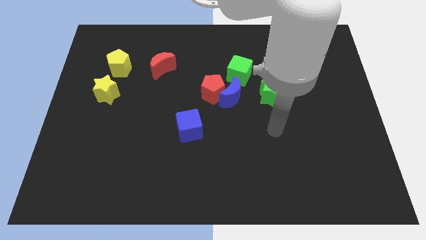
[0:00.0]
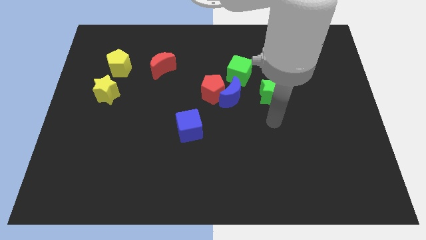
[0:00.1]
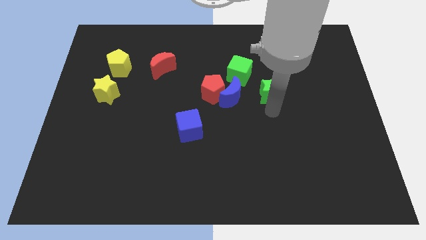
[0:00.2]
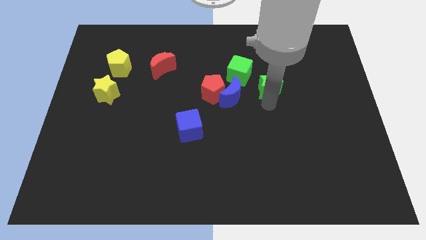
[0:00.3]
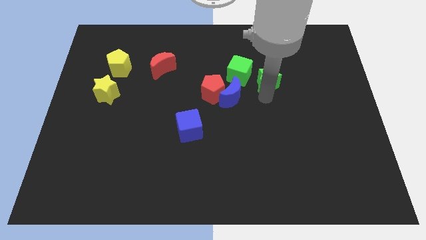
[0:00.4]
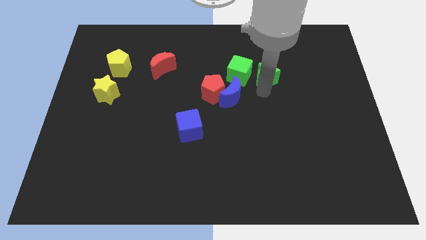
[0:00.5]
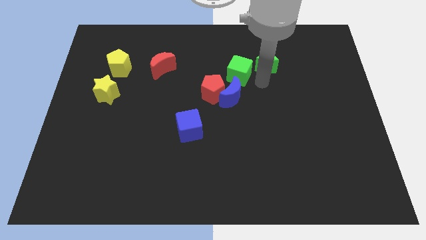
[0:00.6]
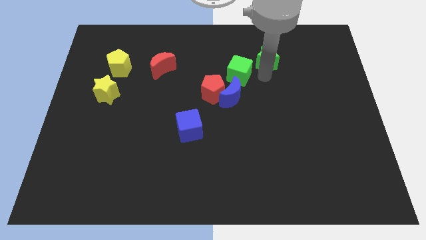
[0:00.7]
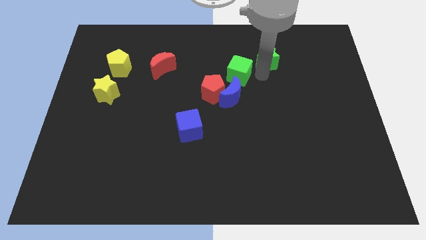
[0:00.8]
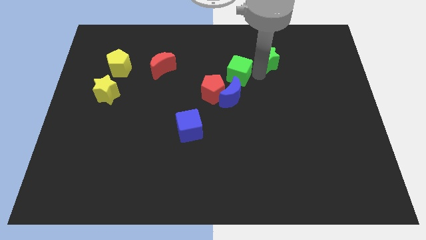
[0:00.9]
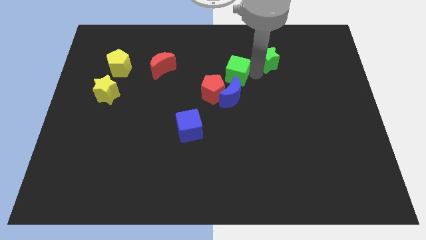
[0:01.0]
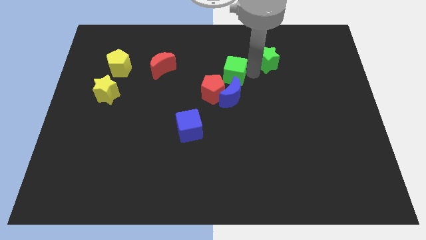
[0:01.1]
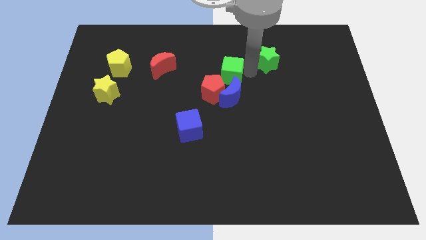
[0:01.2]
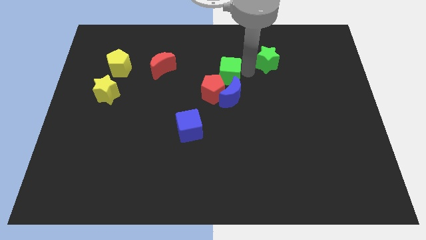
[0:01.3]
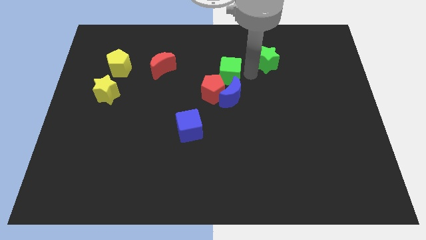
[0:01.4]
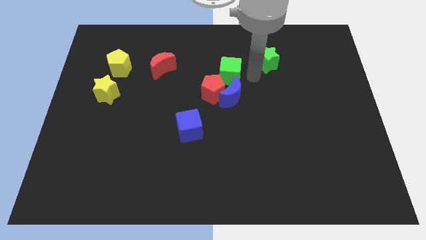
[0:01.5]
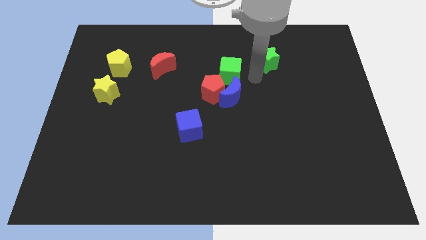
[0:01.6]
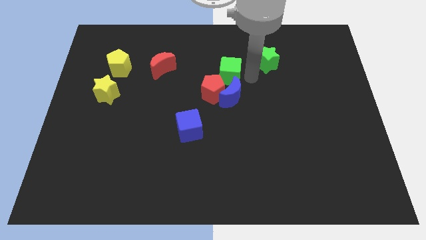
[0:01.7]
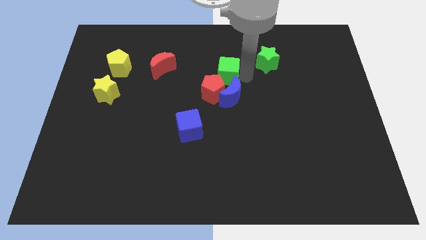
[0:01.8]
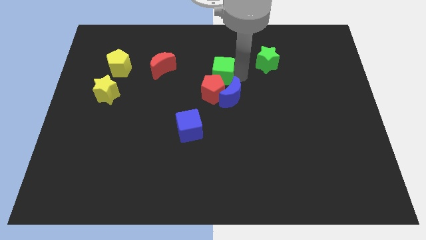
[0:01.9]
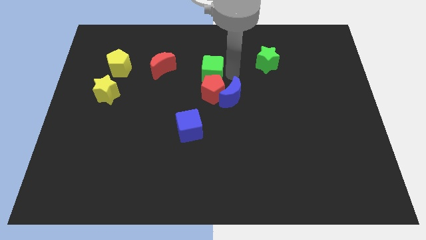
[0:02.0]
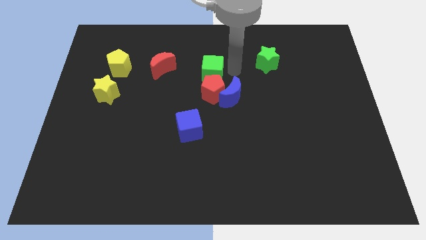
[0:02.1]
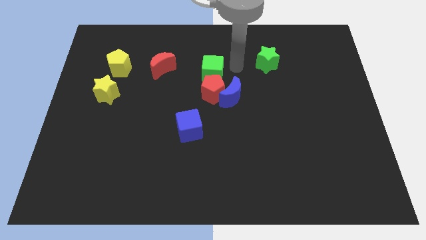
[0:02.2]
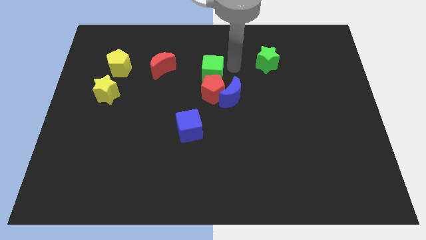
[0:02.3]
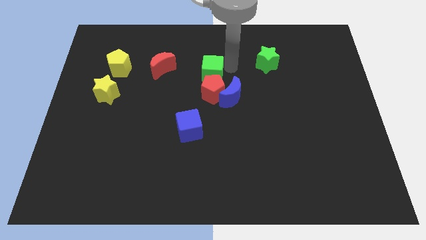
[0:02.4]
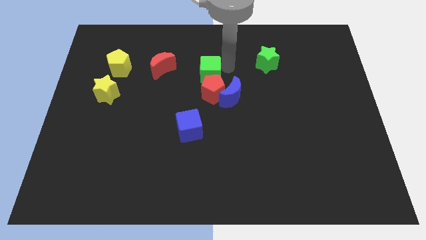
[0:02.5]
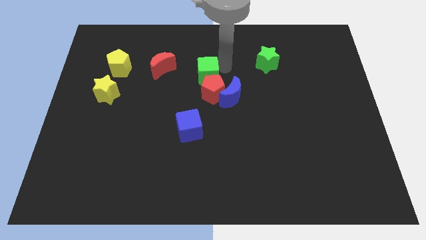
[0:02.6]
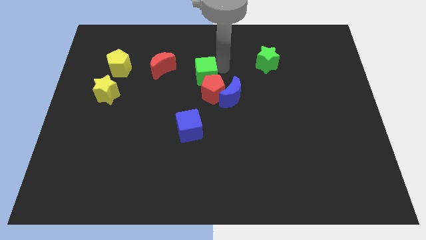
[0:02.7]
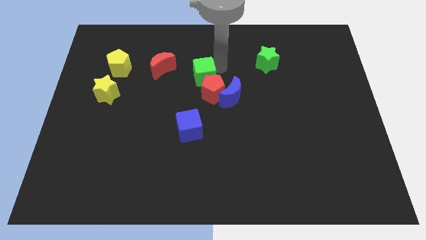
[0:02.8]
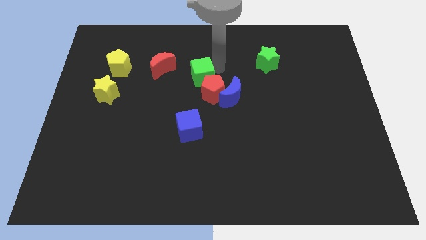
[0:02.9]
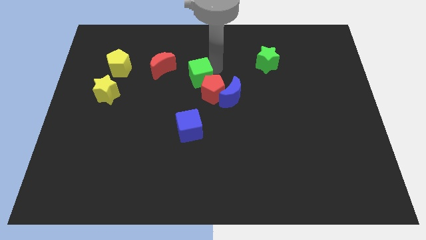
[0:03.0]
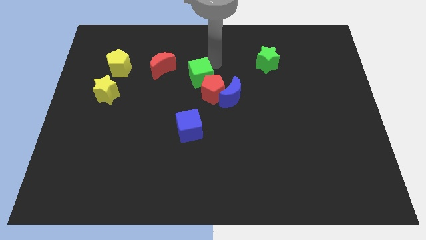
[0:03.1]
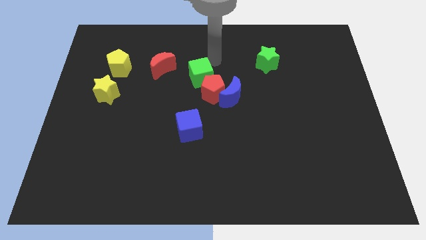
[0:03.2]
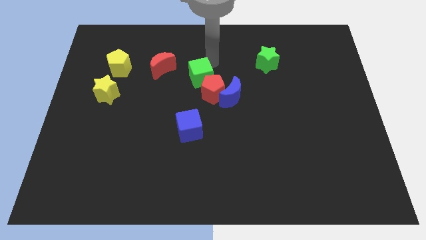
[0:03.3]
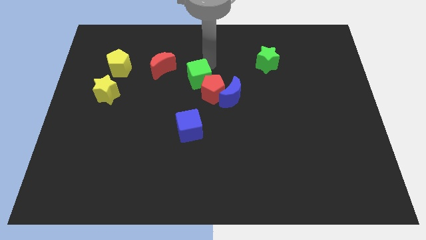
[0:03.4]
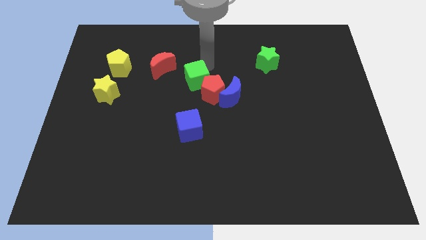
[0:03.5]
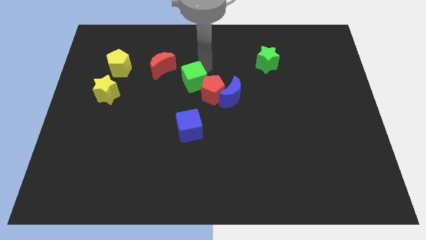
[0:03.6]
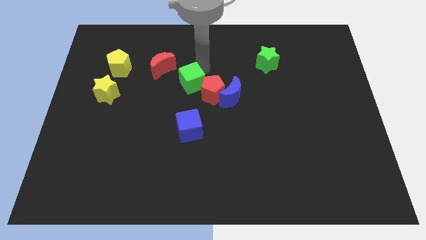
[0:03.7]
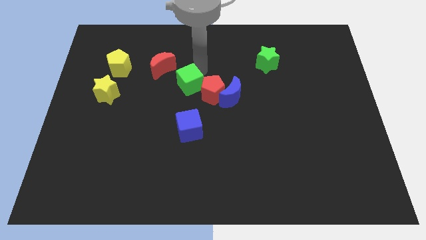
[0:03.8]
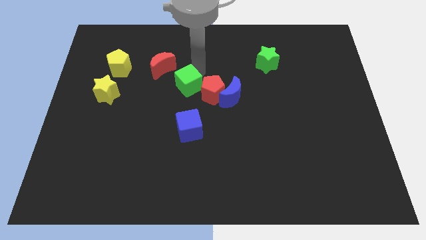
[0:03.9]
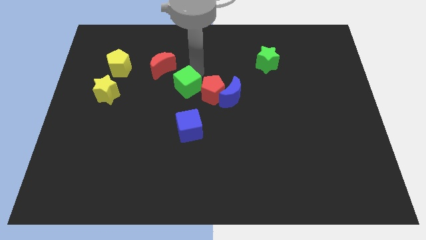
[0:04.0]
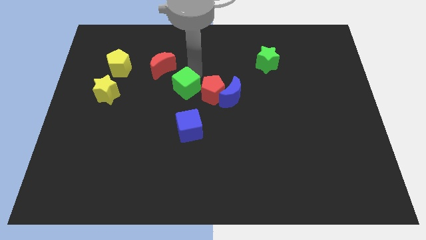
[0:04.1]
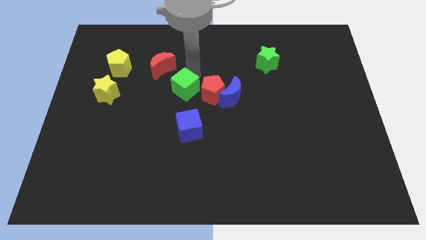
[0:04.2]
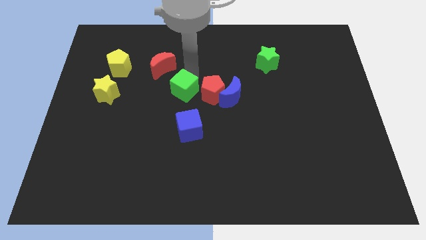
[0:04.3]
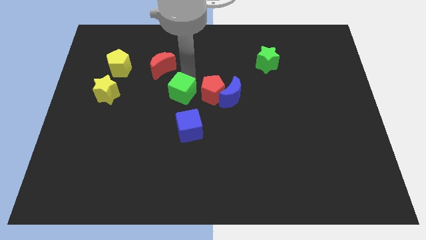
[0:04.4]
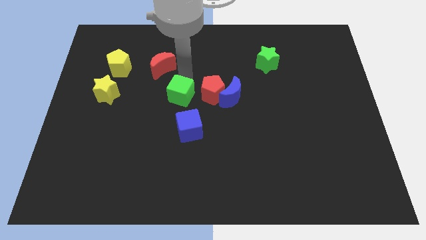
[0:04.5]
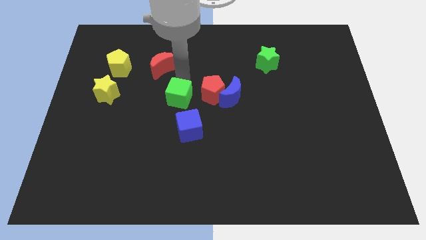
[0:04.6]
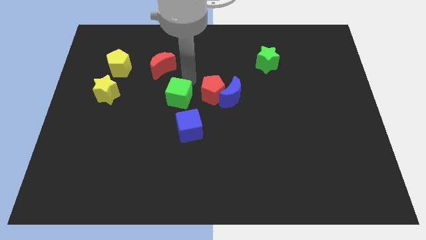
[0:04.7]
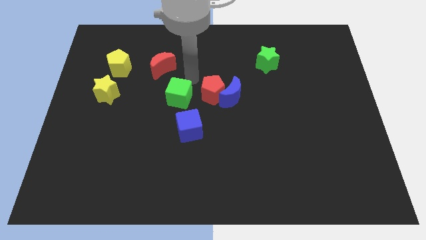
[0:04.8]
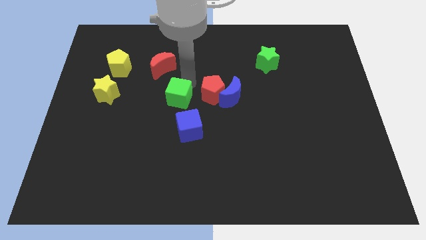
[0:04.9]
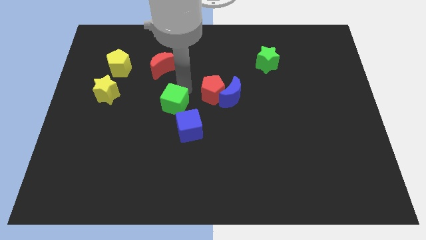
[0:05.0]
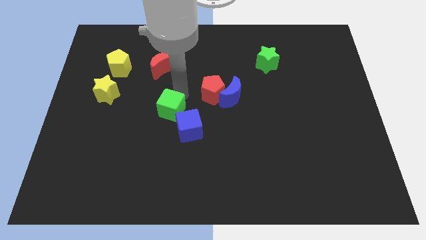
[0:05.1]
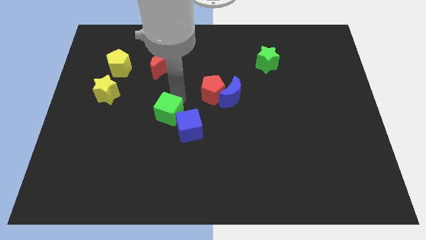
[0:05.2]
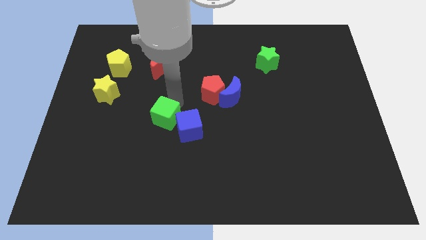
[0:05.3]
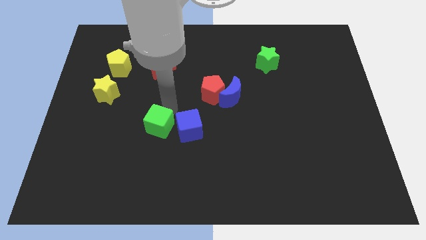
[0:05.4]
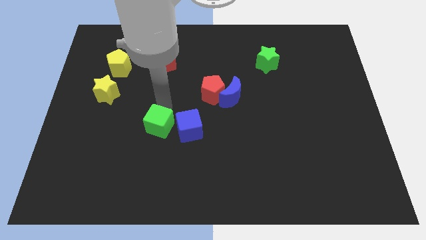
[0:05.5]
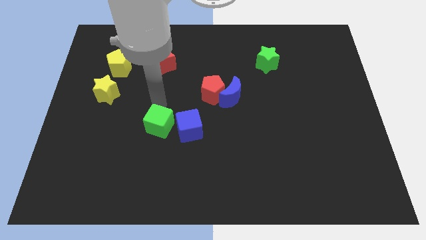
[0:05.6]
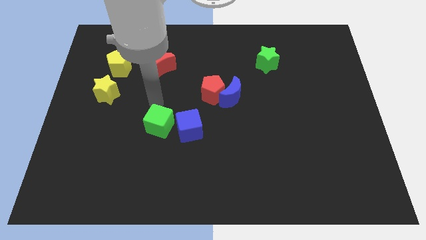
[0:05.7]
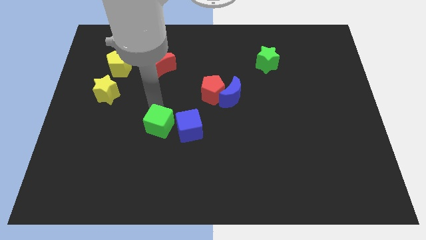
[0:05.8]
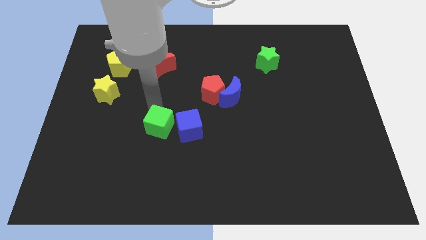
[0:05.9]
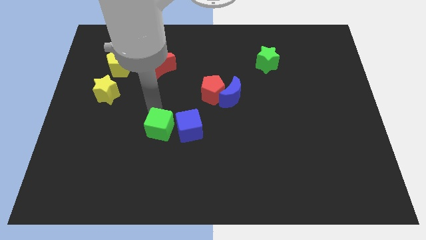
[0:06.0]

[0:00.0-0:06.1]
push the green cube diagonally down and to the left of the blue cube
